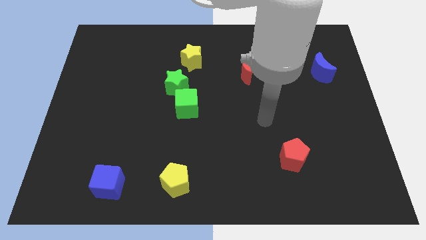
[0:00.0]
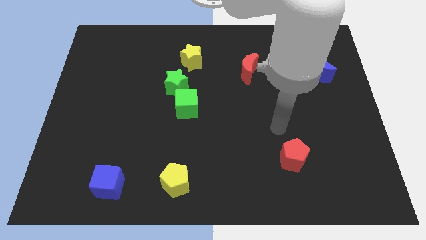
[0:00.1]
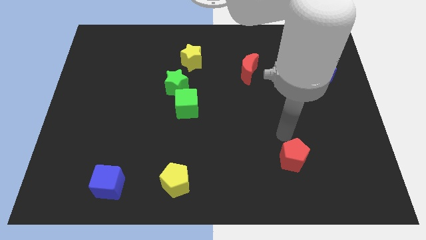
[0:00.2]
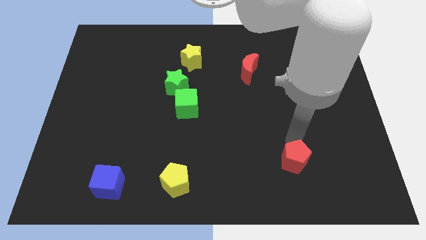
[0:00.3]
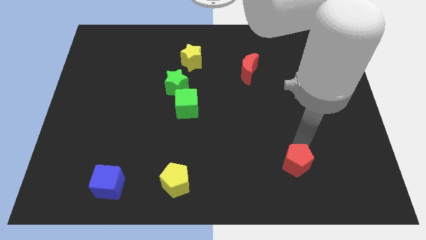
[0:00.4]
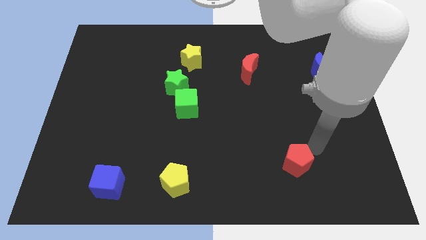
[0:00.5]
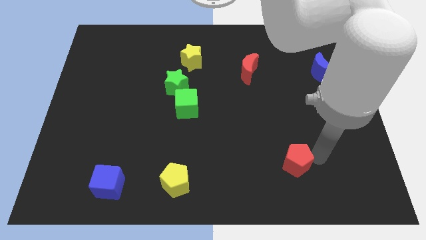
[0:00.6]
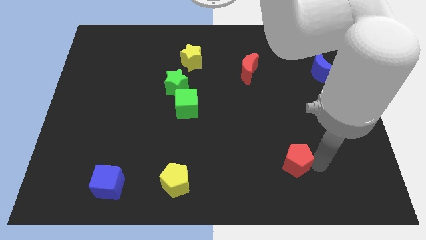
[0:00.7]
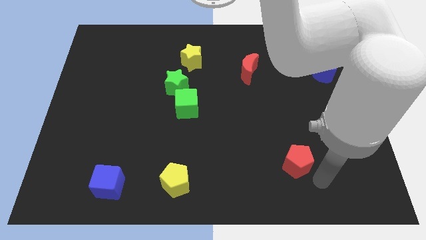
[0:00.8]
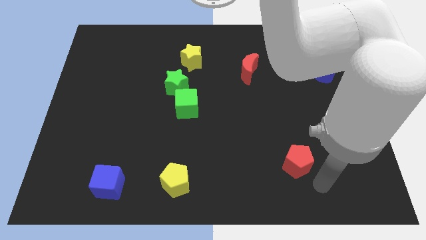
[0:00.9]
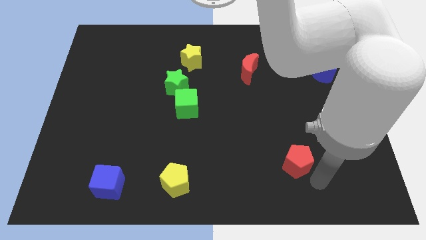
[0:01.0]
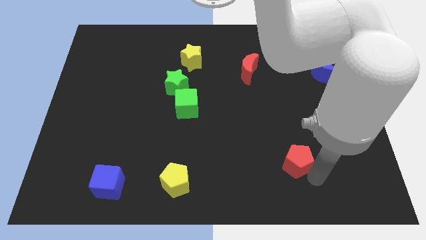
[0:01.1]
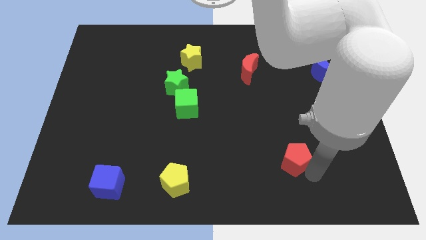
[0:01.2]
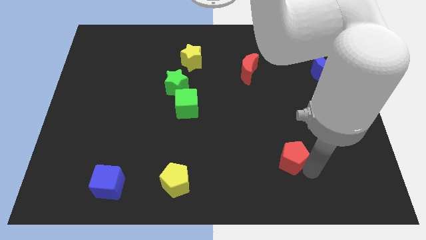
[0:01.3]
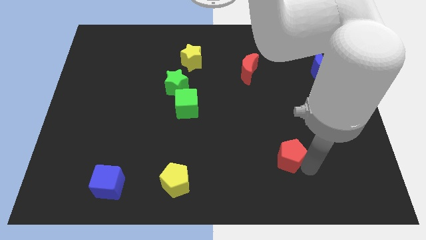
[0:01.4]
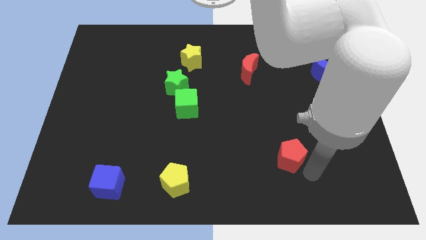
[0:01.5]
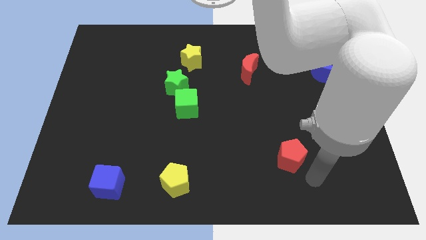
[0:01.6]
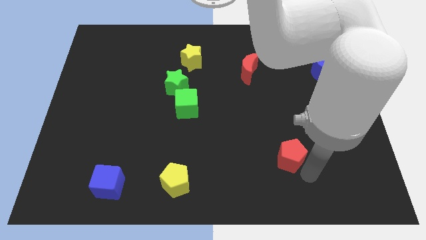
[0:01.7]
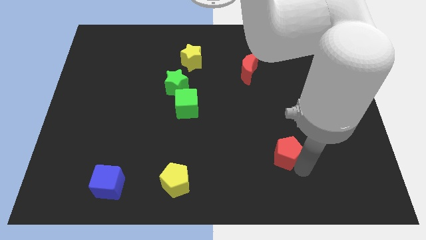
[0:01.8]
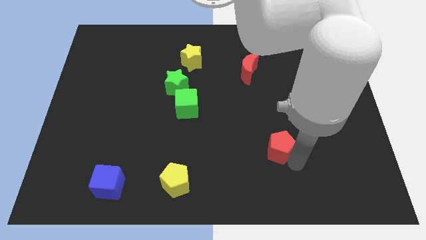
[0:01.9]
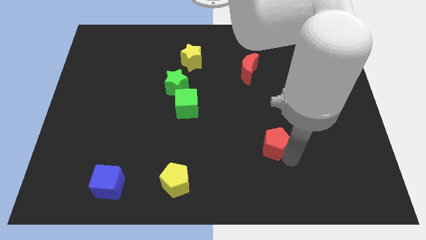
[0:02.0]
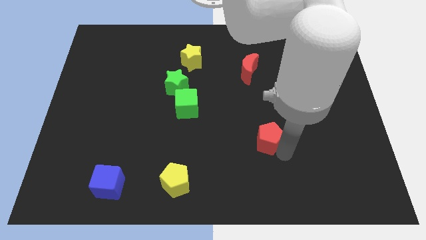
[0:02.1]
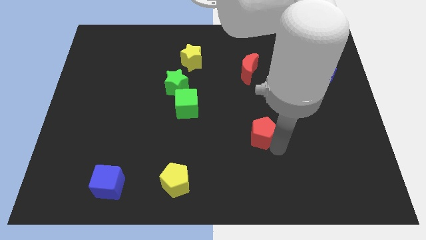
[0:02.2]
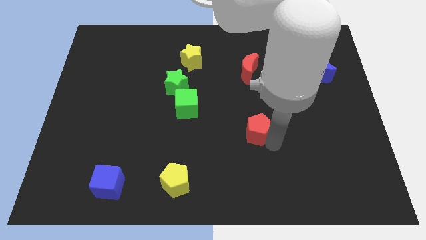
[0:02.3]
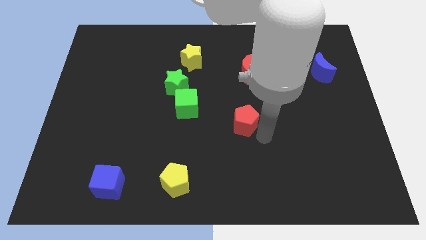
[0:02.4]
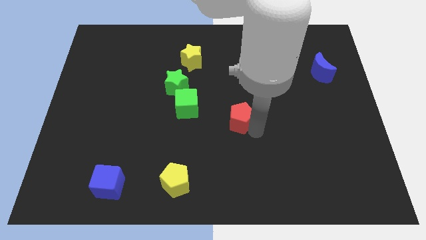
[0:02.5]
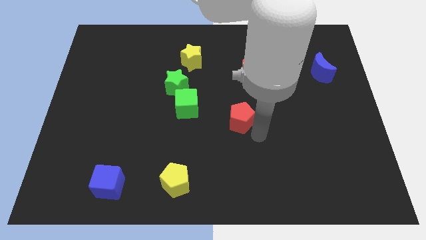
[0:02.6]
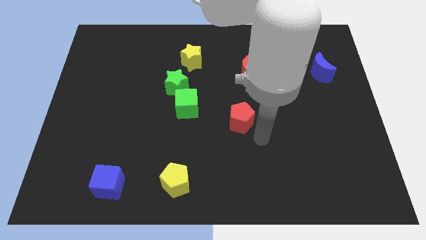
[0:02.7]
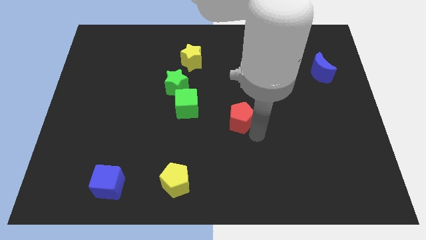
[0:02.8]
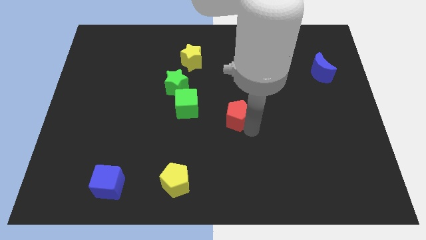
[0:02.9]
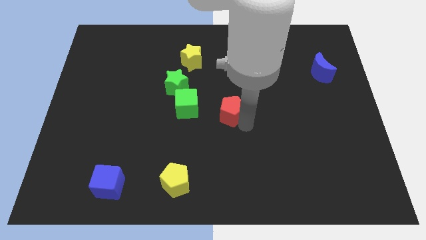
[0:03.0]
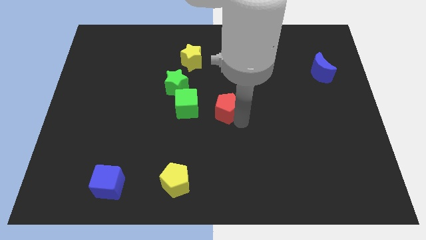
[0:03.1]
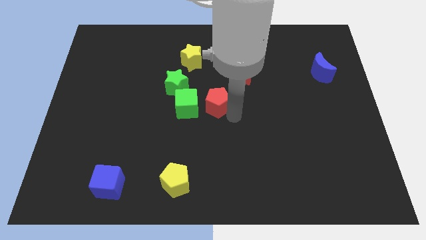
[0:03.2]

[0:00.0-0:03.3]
push the red pentagon diagonally up and left

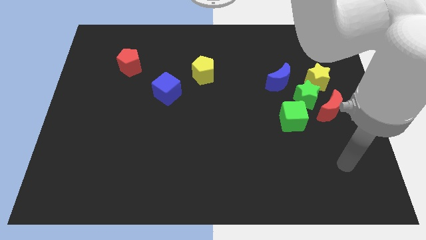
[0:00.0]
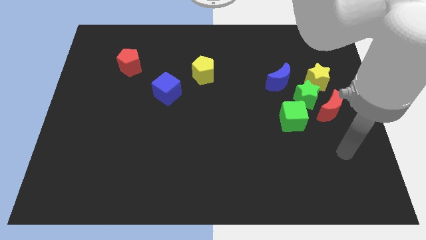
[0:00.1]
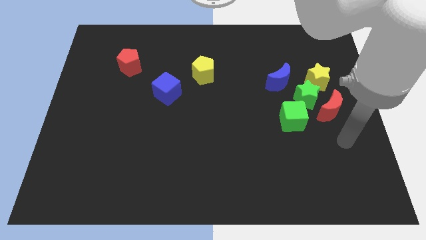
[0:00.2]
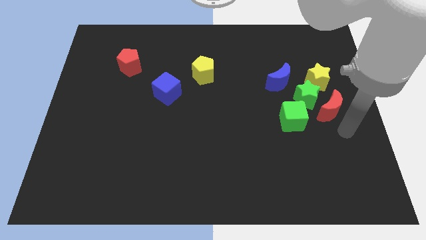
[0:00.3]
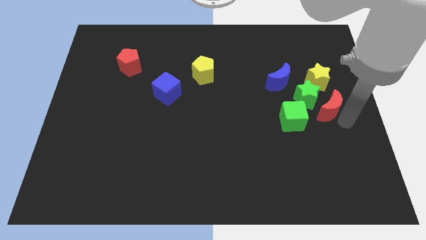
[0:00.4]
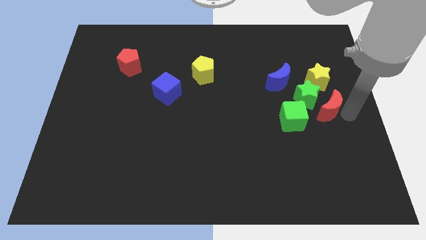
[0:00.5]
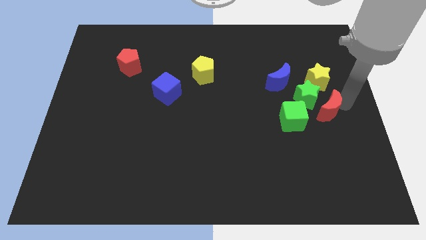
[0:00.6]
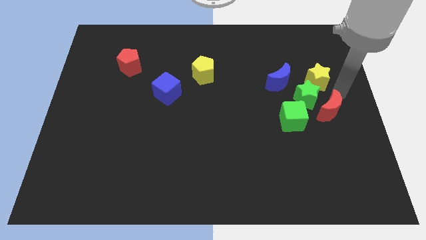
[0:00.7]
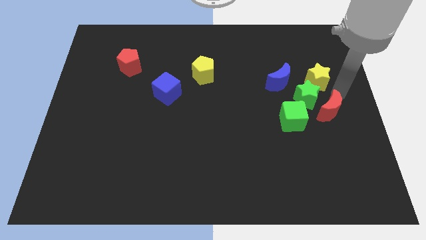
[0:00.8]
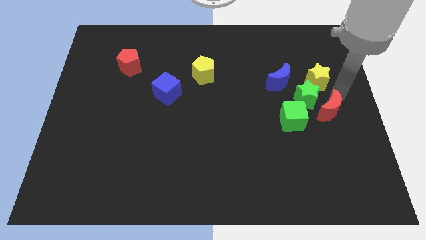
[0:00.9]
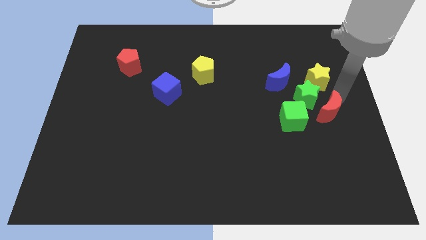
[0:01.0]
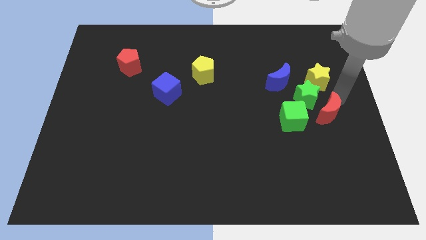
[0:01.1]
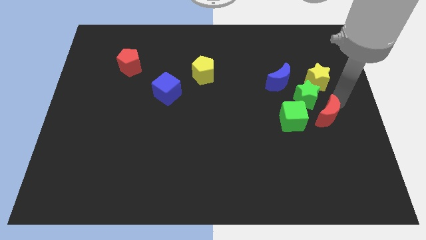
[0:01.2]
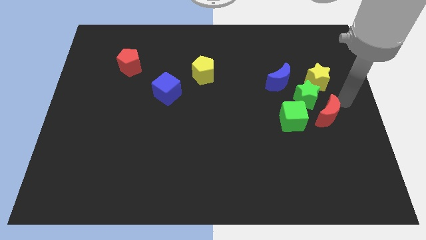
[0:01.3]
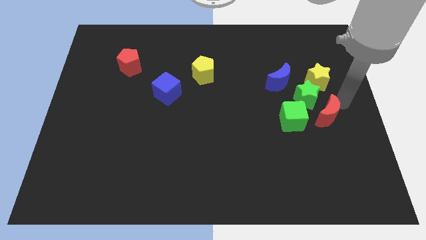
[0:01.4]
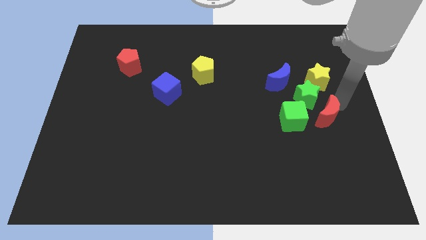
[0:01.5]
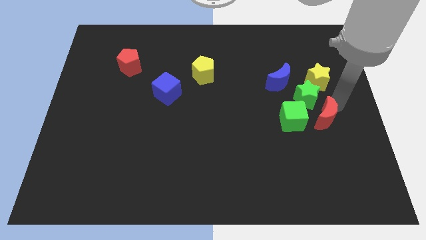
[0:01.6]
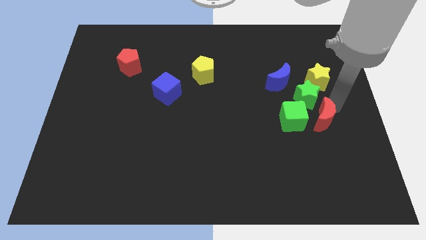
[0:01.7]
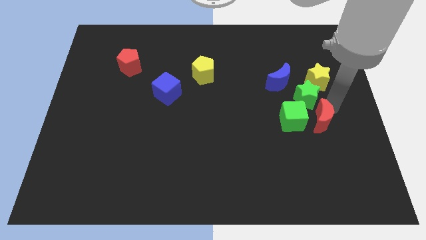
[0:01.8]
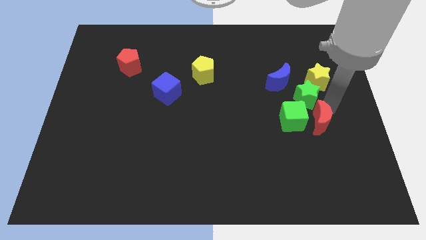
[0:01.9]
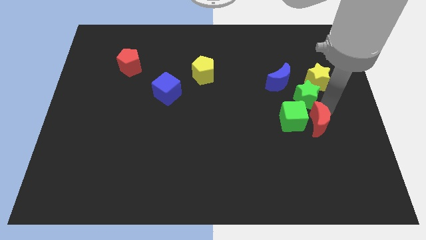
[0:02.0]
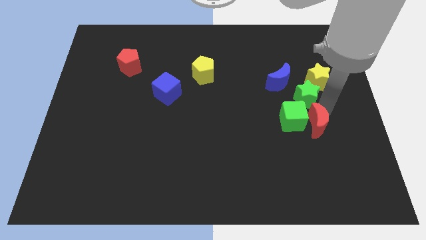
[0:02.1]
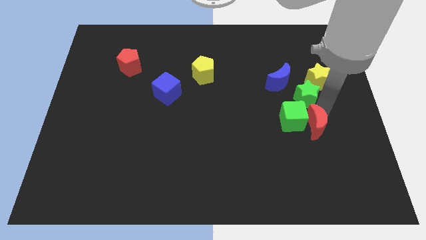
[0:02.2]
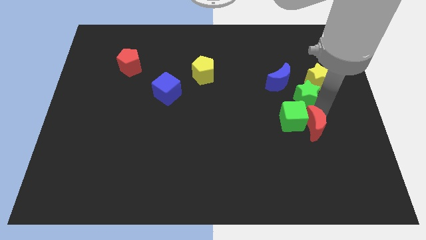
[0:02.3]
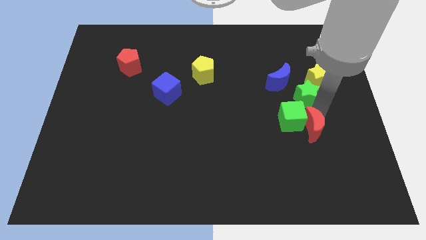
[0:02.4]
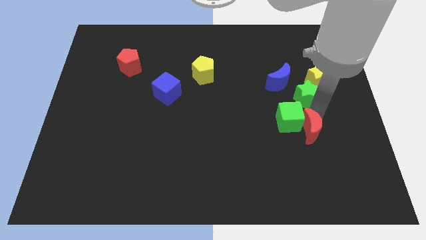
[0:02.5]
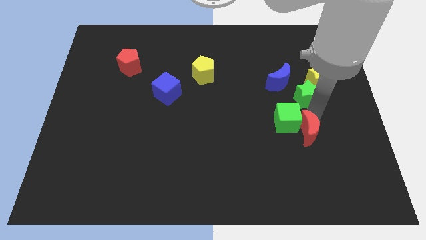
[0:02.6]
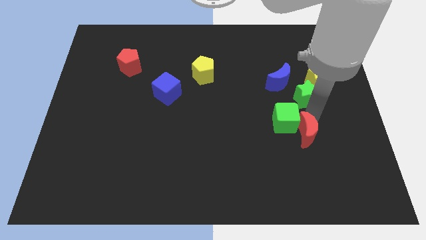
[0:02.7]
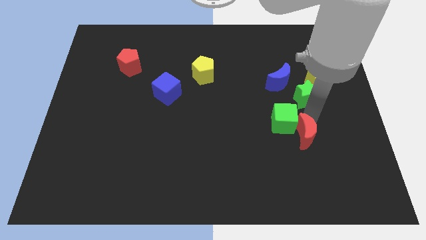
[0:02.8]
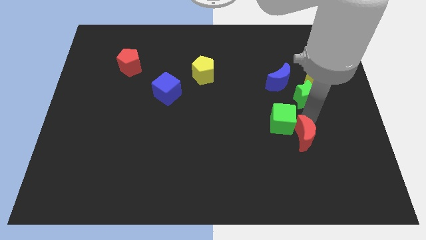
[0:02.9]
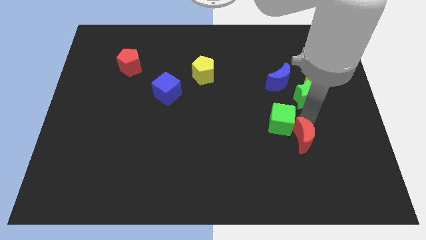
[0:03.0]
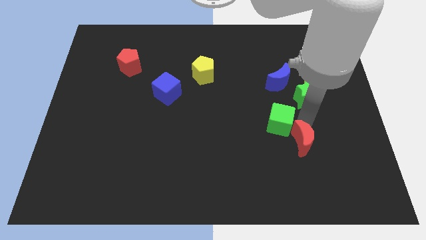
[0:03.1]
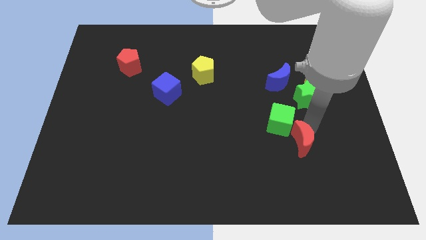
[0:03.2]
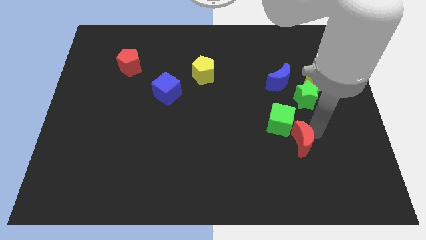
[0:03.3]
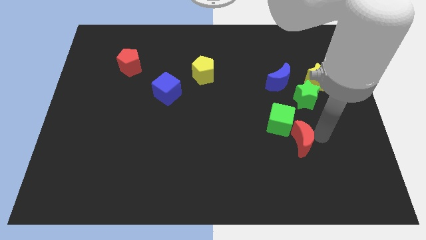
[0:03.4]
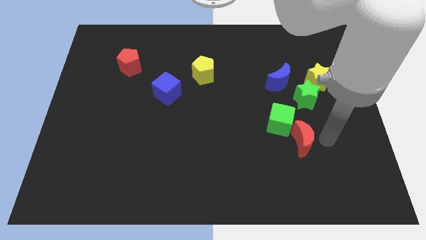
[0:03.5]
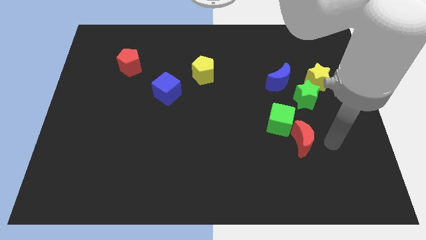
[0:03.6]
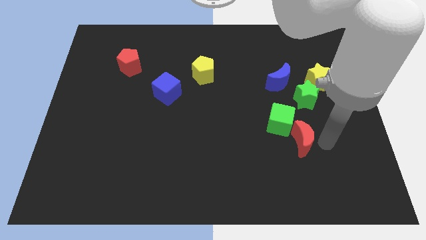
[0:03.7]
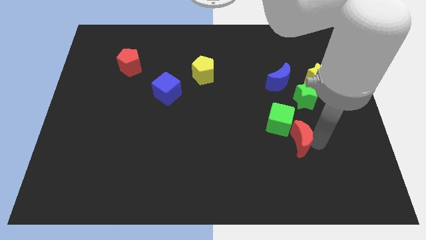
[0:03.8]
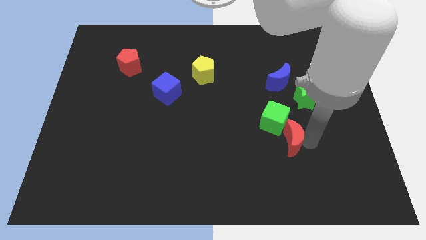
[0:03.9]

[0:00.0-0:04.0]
slightly move the red moon left

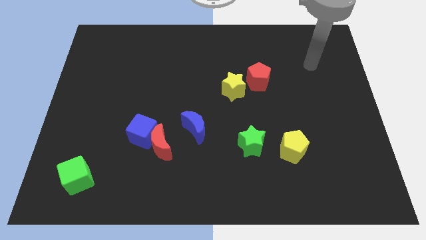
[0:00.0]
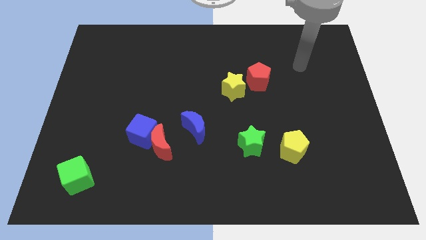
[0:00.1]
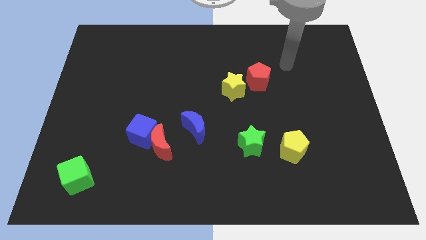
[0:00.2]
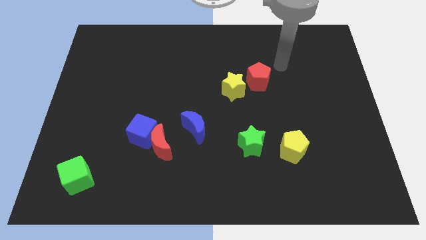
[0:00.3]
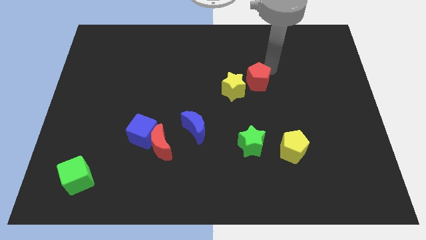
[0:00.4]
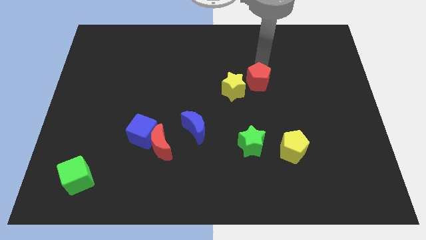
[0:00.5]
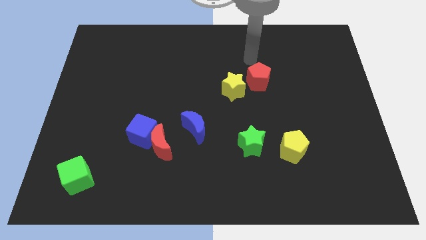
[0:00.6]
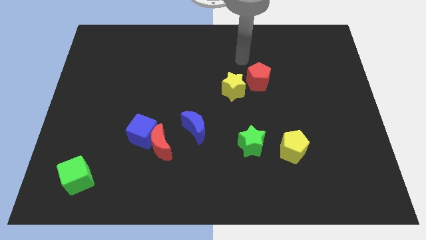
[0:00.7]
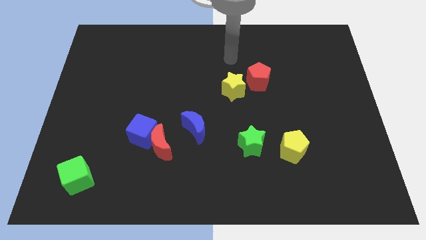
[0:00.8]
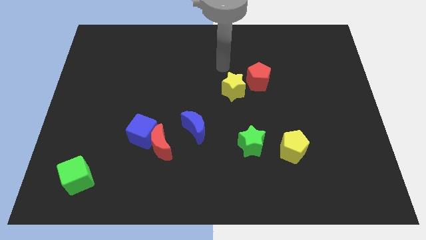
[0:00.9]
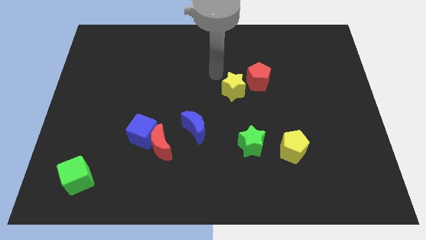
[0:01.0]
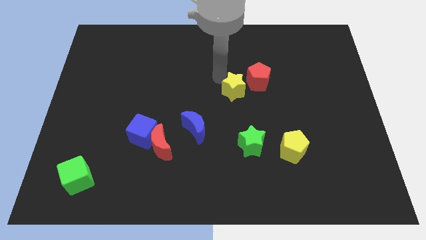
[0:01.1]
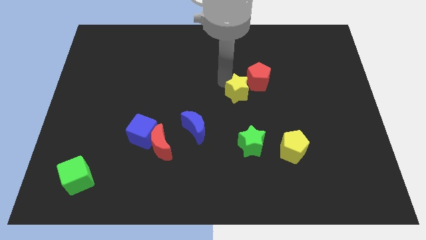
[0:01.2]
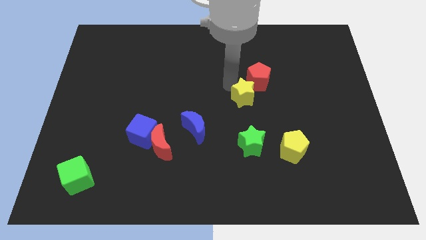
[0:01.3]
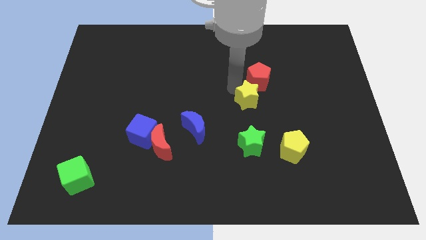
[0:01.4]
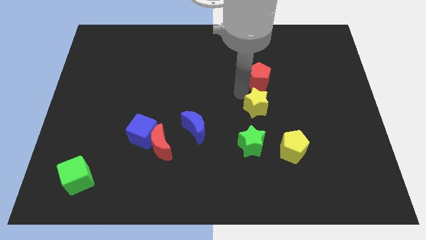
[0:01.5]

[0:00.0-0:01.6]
push the yellow star down and to the right diagonally slightly
